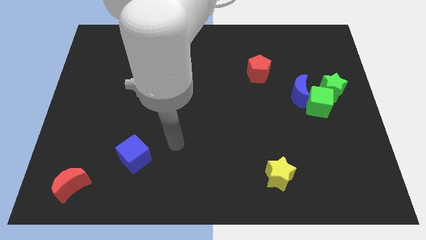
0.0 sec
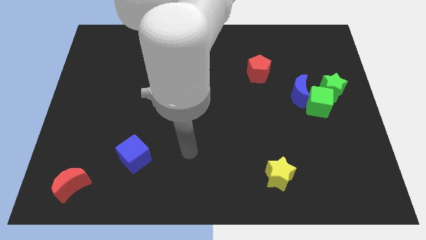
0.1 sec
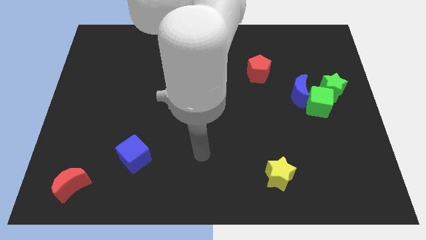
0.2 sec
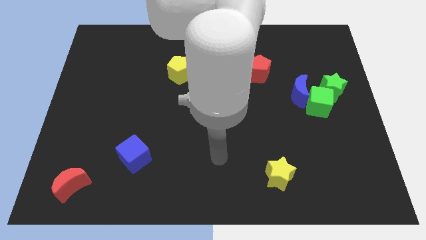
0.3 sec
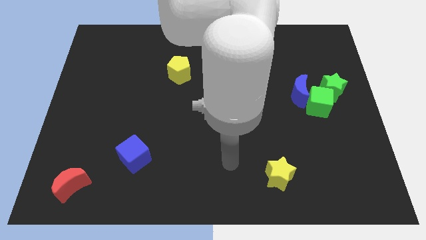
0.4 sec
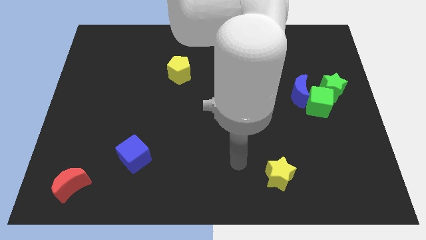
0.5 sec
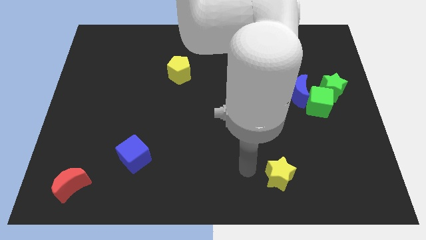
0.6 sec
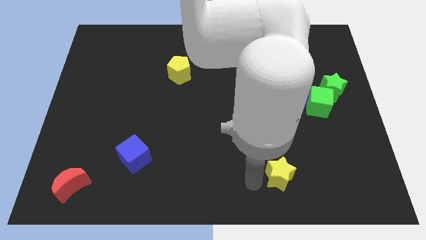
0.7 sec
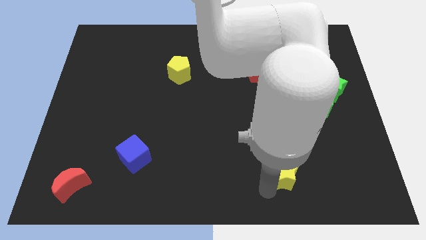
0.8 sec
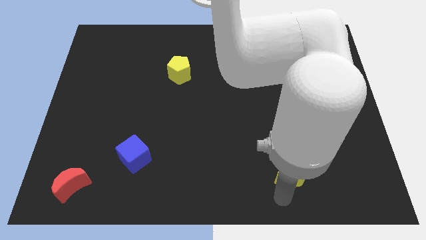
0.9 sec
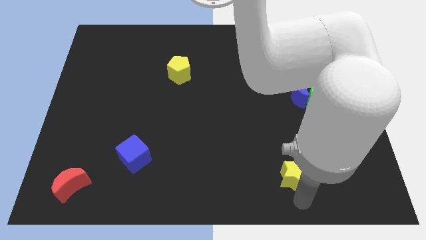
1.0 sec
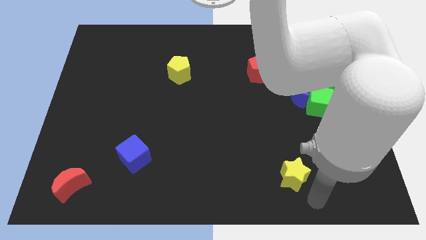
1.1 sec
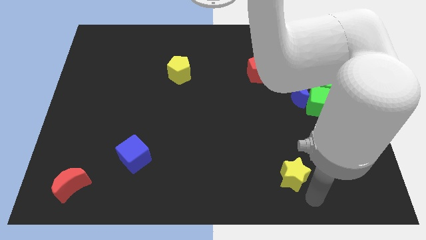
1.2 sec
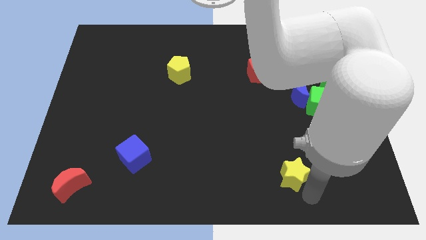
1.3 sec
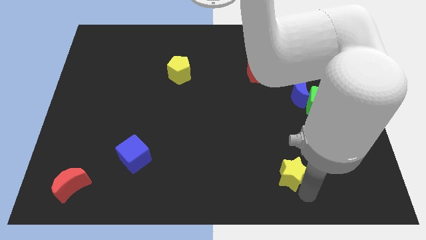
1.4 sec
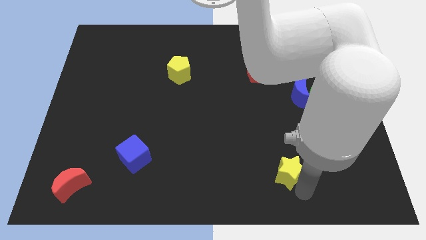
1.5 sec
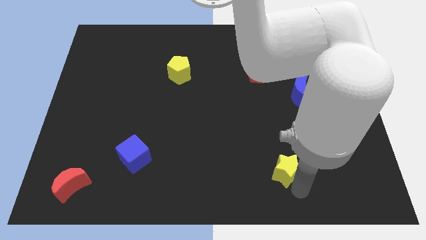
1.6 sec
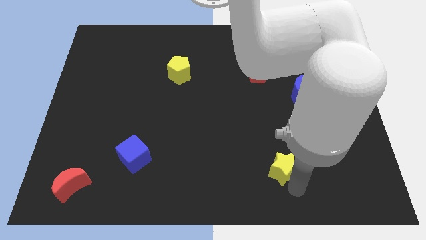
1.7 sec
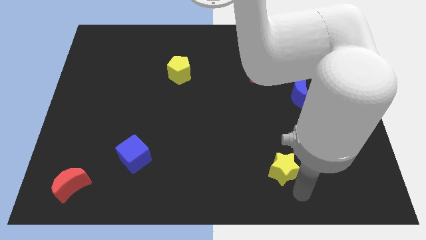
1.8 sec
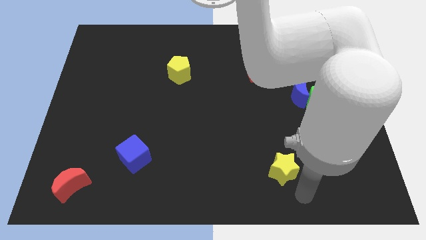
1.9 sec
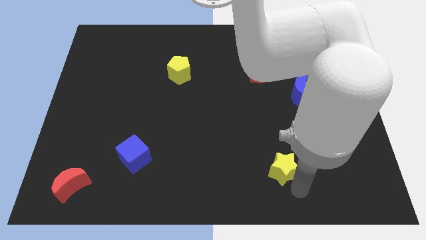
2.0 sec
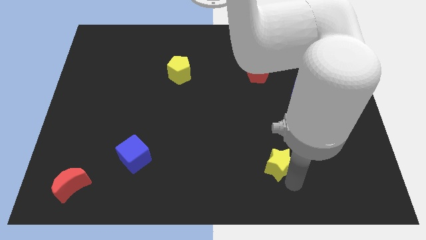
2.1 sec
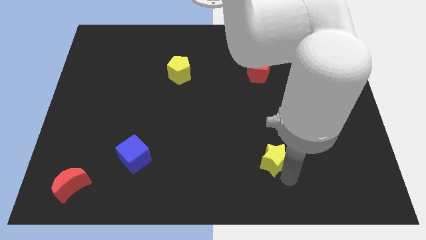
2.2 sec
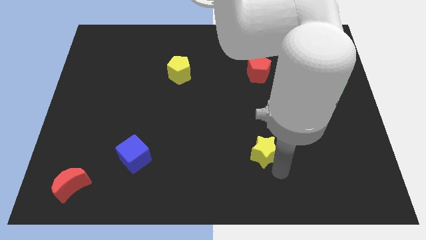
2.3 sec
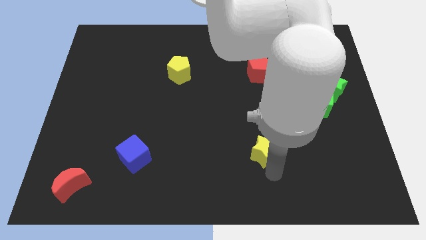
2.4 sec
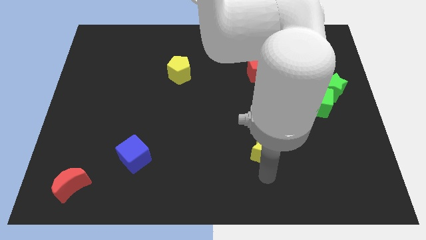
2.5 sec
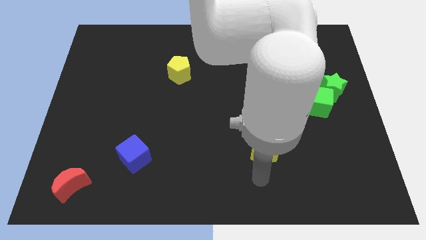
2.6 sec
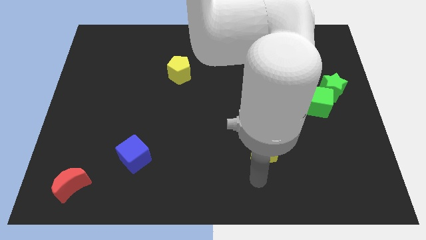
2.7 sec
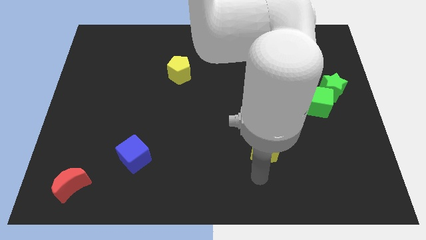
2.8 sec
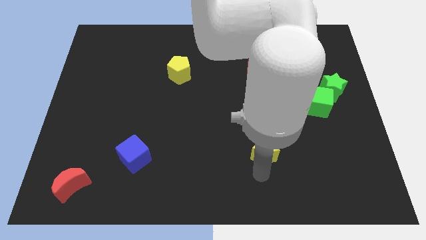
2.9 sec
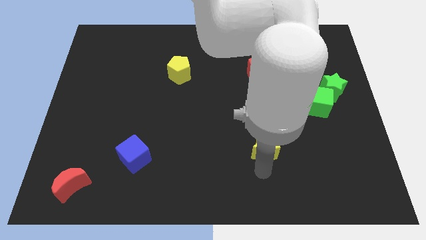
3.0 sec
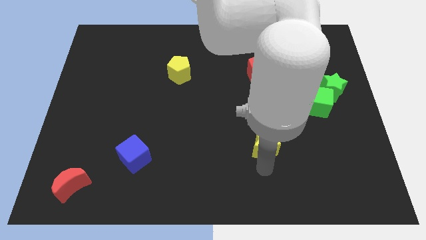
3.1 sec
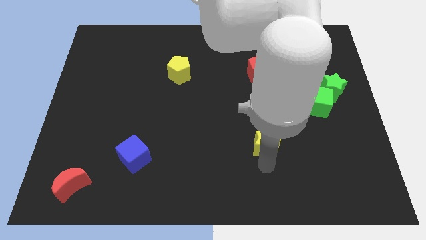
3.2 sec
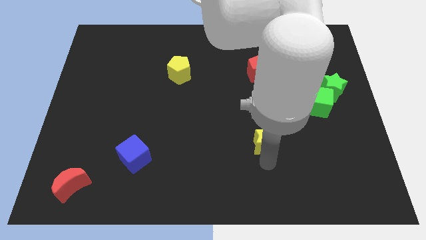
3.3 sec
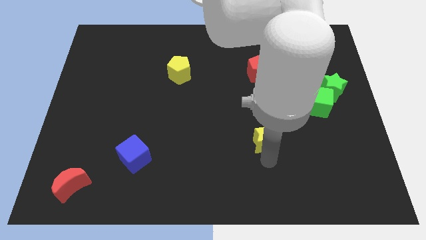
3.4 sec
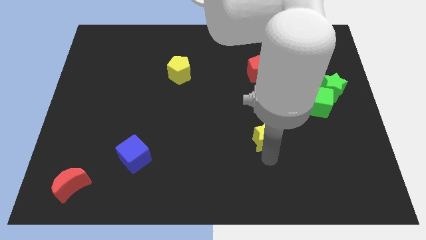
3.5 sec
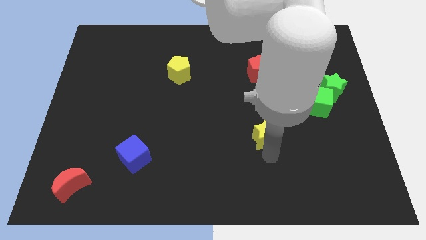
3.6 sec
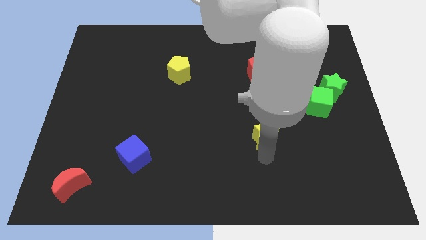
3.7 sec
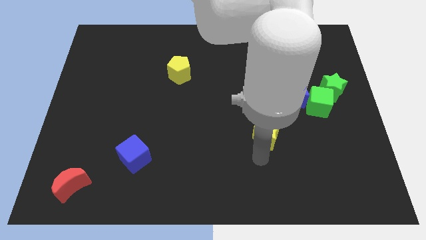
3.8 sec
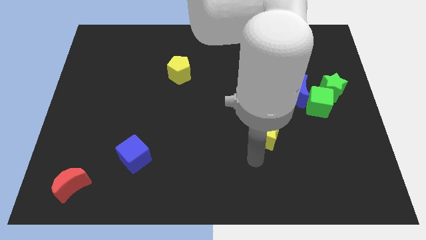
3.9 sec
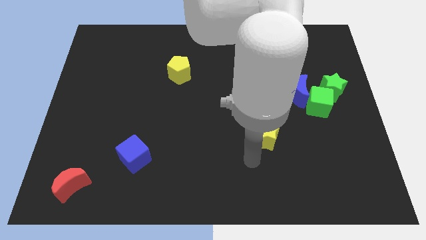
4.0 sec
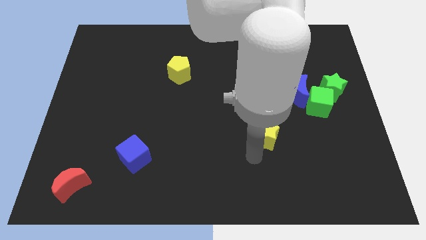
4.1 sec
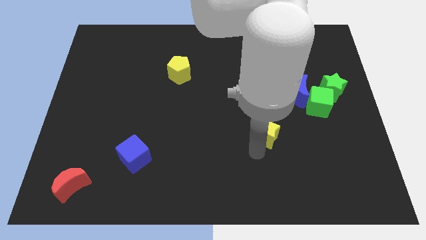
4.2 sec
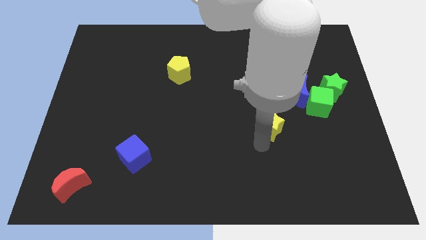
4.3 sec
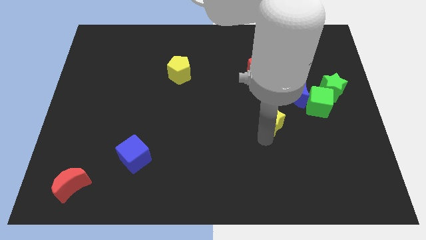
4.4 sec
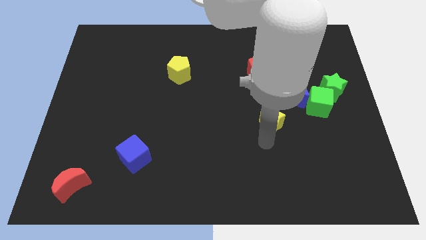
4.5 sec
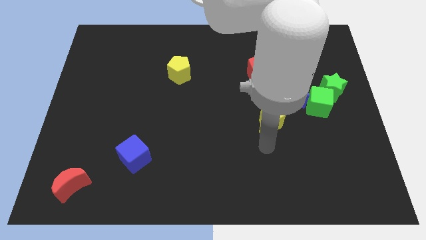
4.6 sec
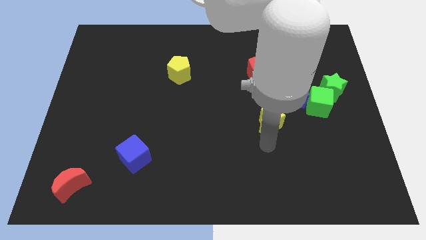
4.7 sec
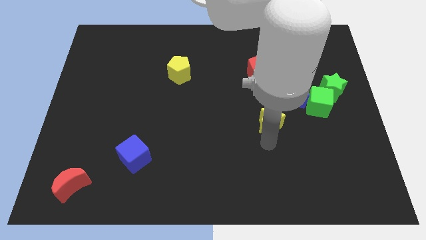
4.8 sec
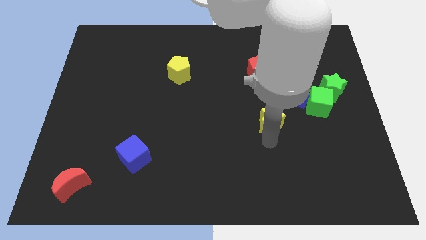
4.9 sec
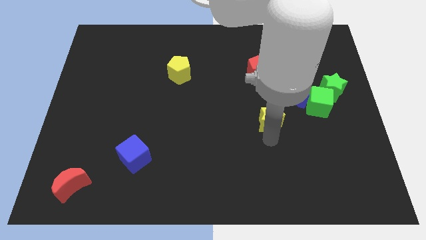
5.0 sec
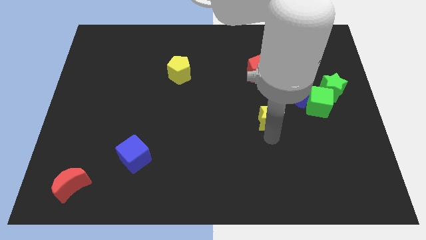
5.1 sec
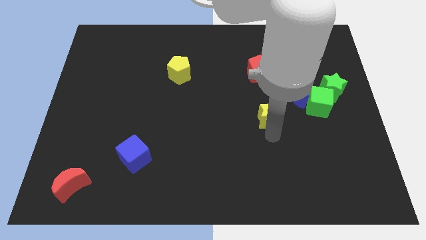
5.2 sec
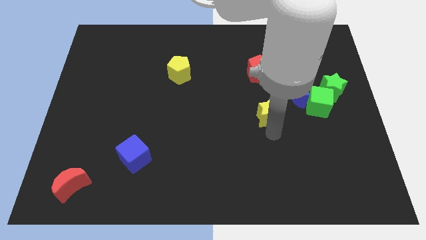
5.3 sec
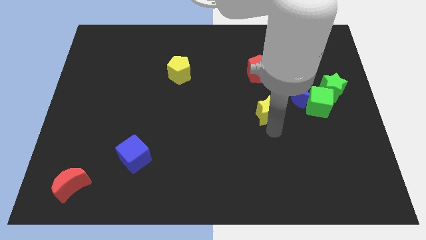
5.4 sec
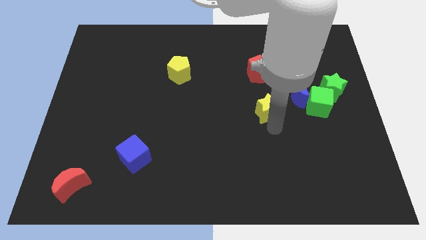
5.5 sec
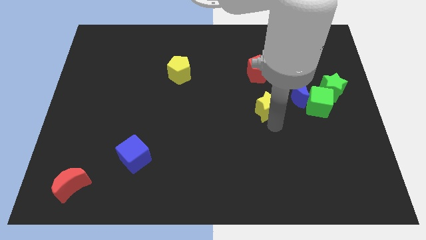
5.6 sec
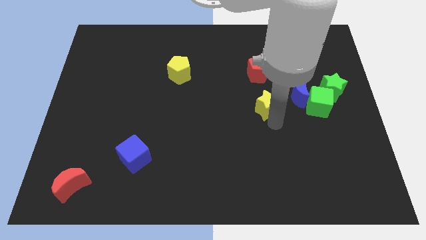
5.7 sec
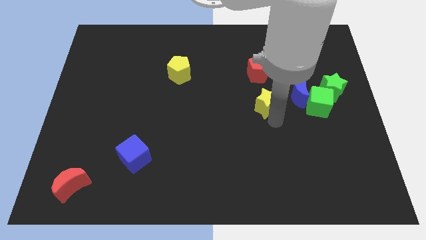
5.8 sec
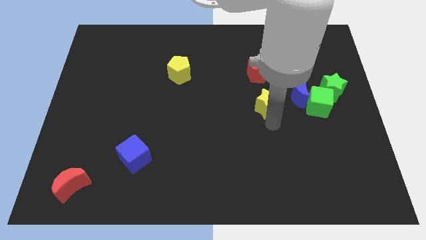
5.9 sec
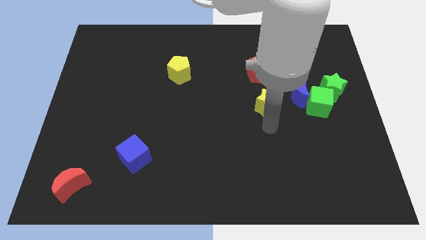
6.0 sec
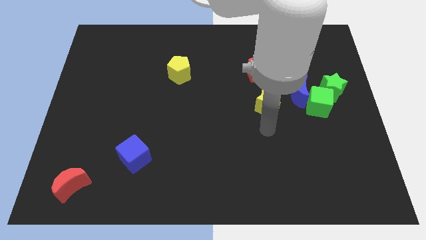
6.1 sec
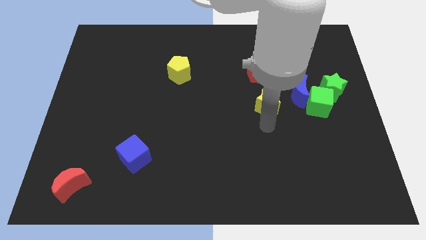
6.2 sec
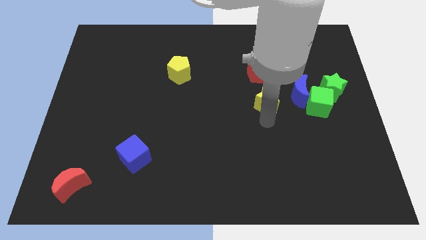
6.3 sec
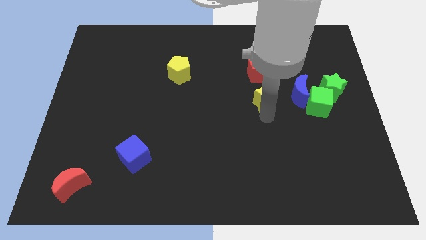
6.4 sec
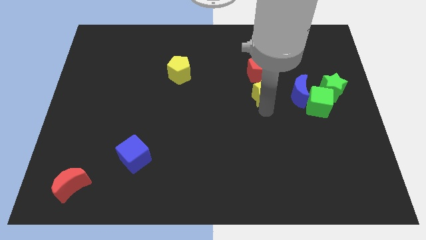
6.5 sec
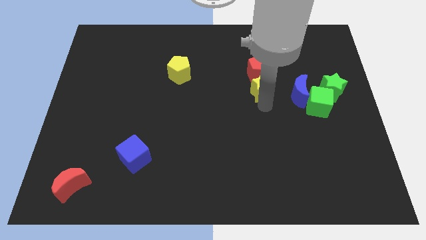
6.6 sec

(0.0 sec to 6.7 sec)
push the yellow star close to the red pentagon
